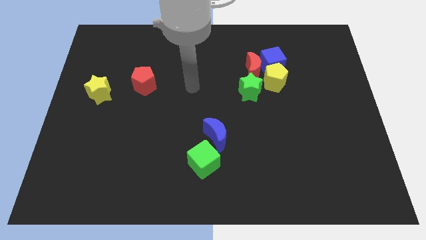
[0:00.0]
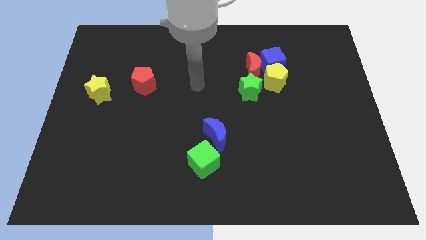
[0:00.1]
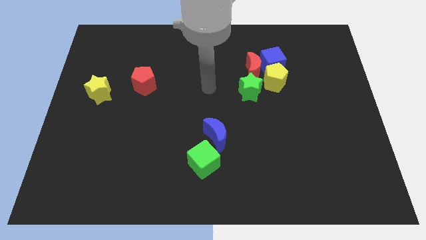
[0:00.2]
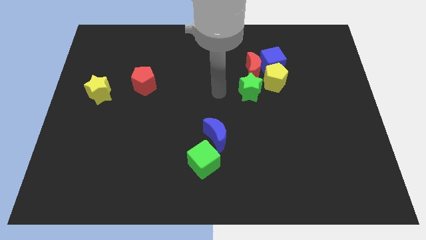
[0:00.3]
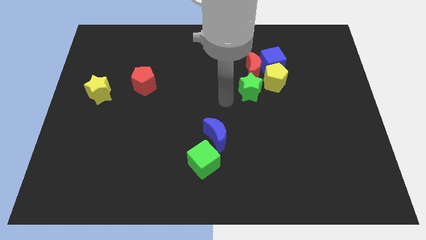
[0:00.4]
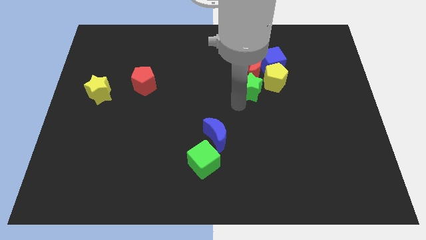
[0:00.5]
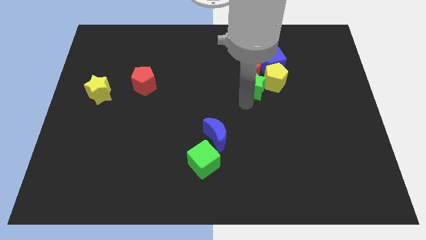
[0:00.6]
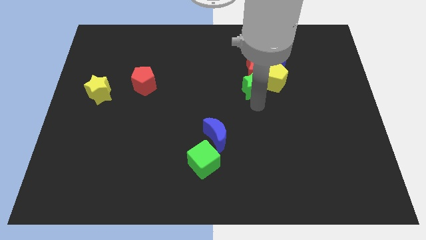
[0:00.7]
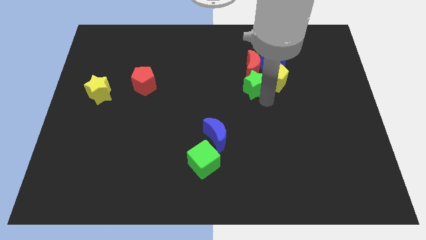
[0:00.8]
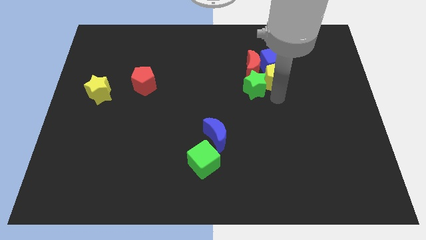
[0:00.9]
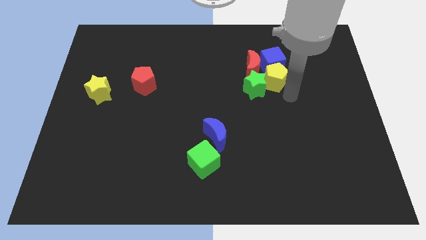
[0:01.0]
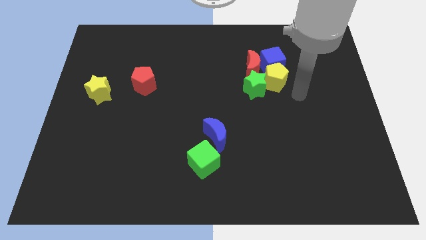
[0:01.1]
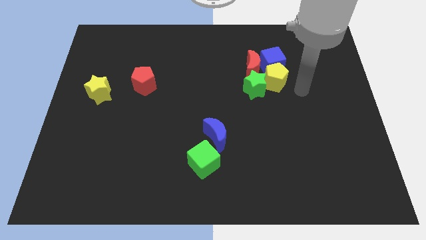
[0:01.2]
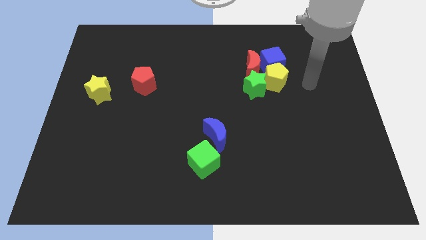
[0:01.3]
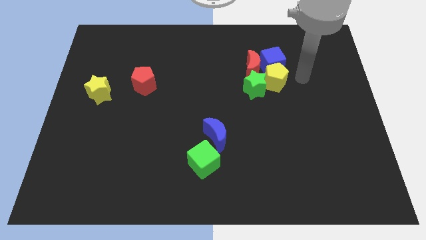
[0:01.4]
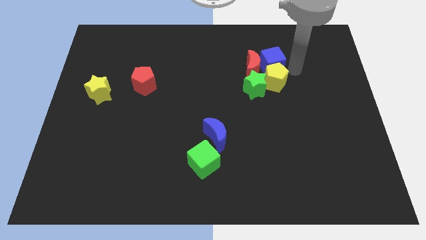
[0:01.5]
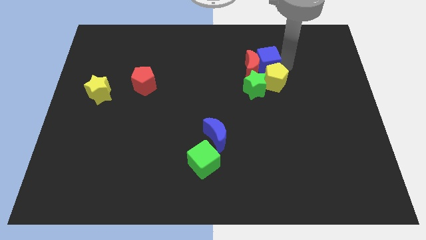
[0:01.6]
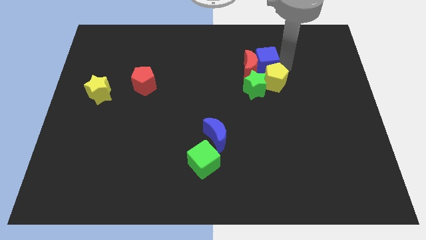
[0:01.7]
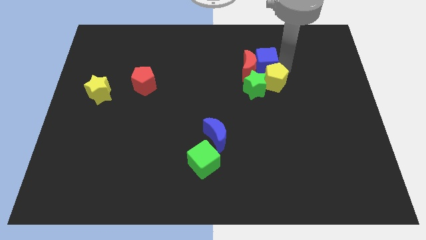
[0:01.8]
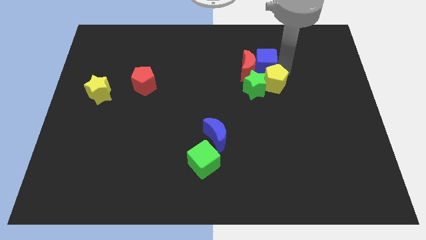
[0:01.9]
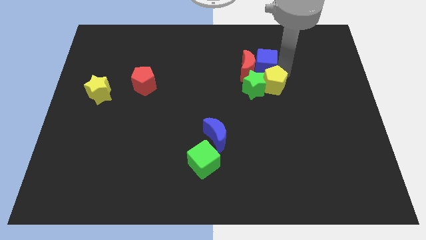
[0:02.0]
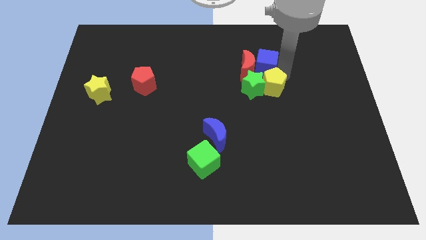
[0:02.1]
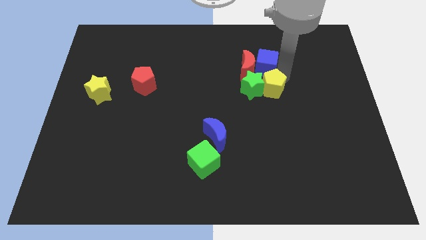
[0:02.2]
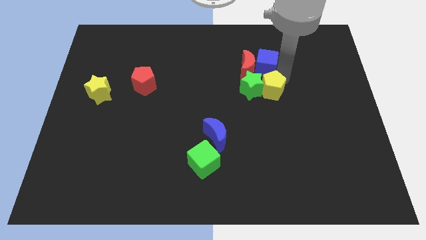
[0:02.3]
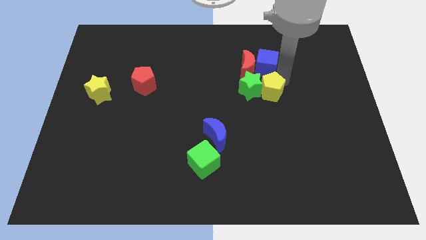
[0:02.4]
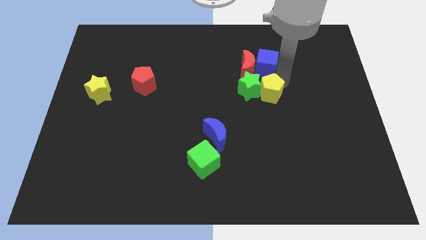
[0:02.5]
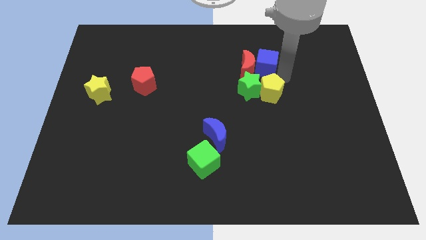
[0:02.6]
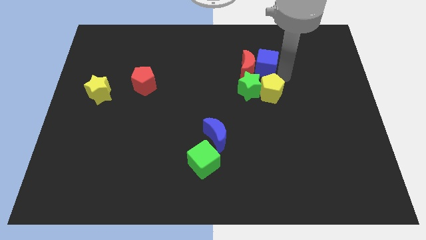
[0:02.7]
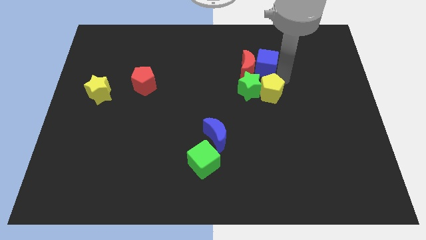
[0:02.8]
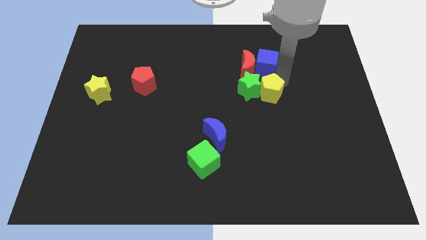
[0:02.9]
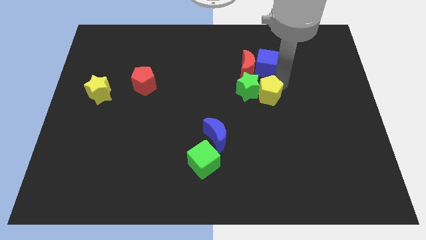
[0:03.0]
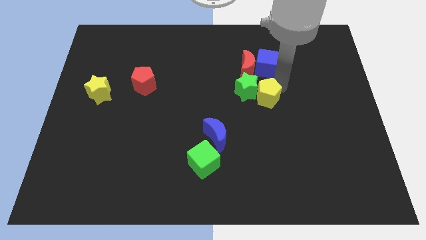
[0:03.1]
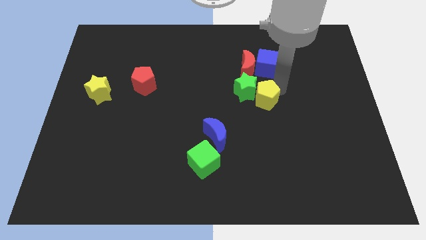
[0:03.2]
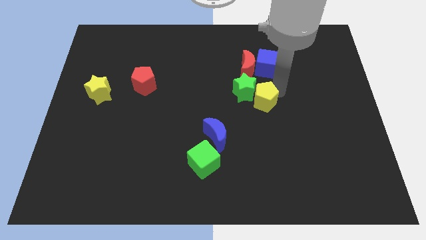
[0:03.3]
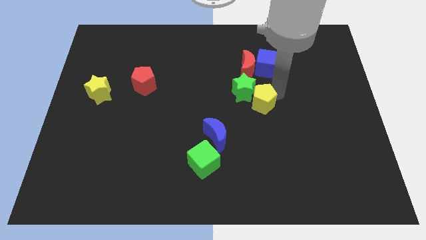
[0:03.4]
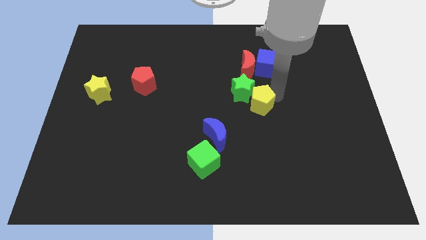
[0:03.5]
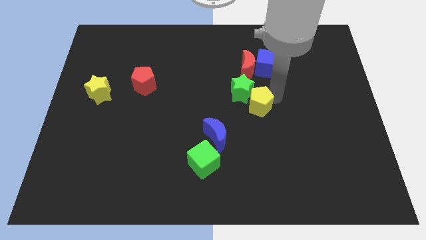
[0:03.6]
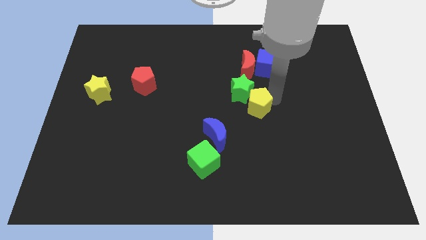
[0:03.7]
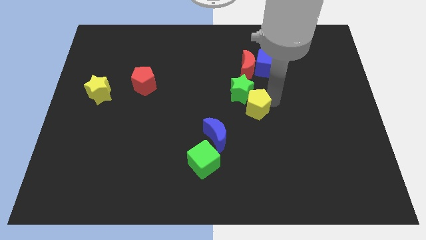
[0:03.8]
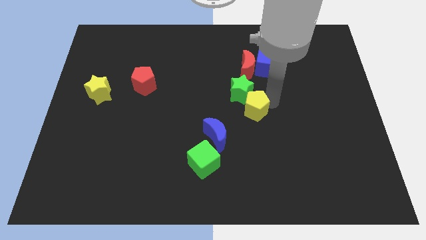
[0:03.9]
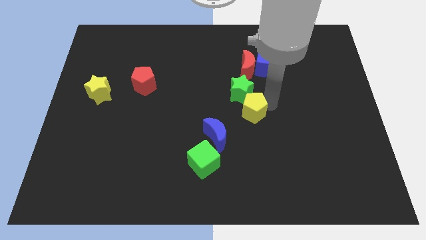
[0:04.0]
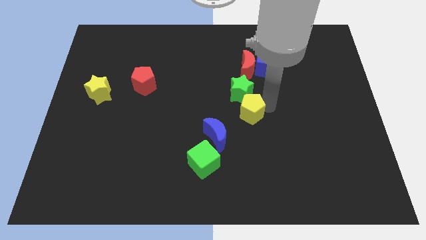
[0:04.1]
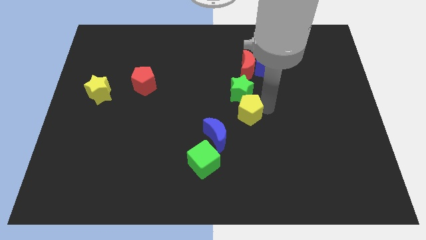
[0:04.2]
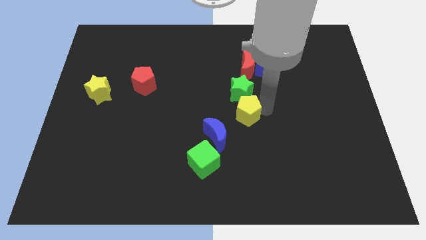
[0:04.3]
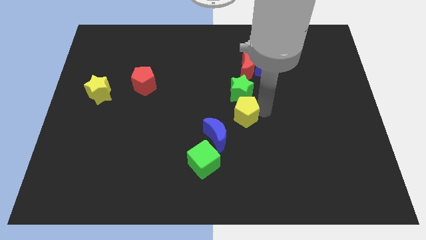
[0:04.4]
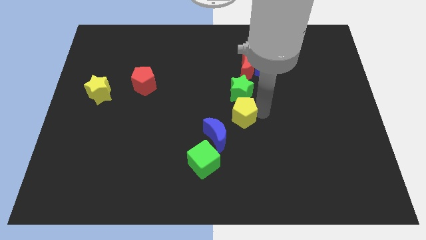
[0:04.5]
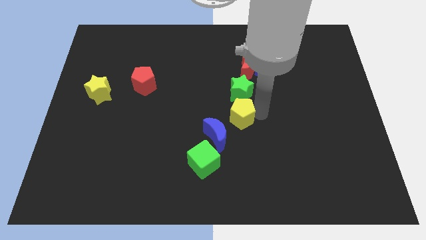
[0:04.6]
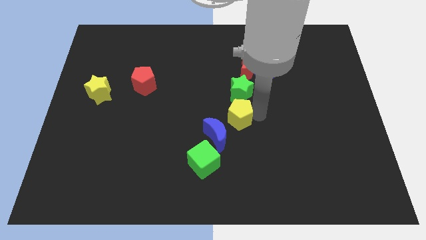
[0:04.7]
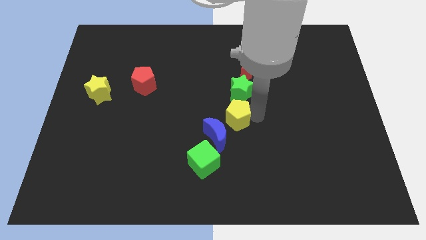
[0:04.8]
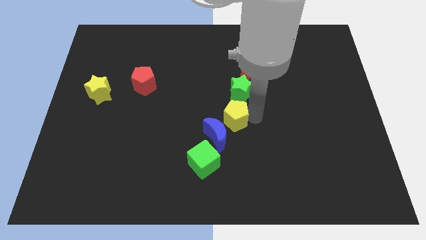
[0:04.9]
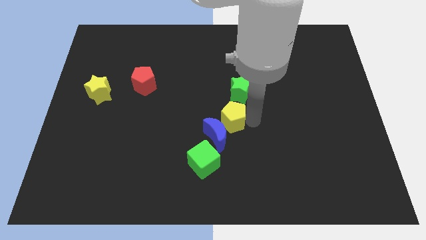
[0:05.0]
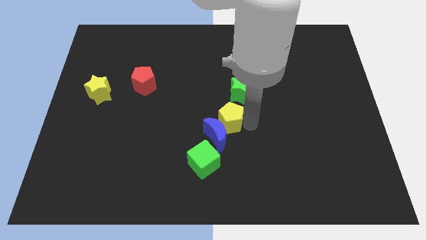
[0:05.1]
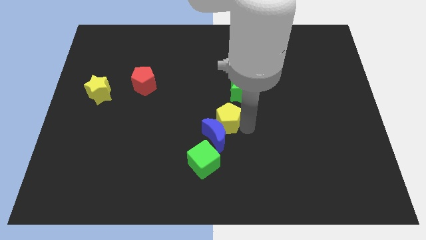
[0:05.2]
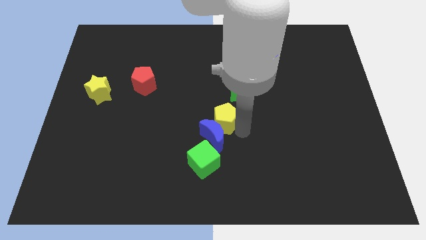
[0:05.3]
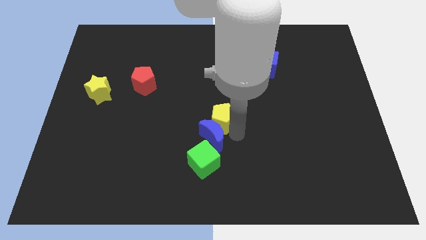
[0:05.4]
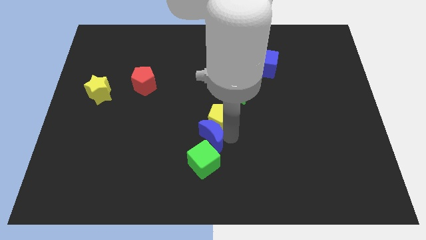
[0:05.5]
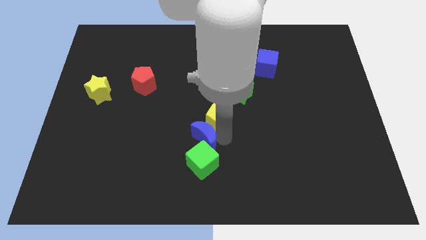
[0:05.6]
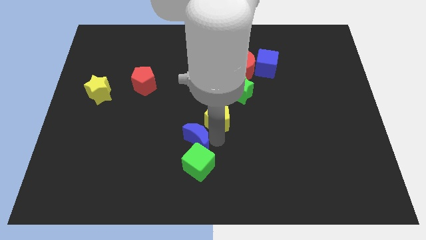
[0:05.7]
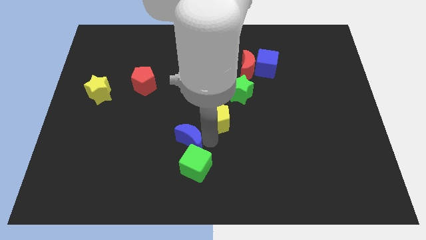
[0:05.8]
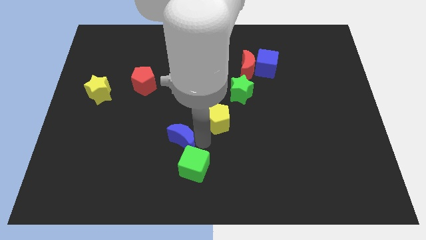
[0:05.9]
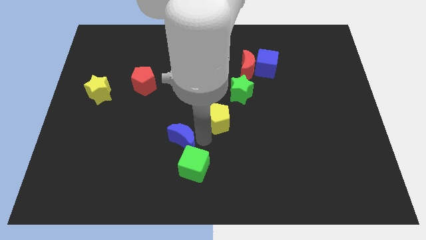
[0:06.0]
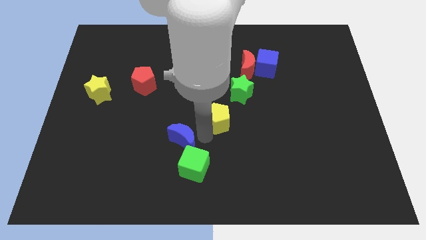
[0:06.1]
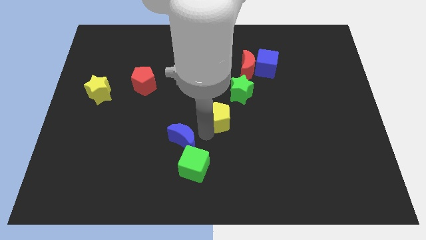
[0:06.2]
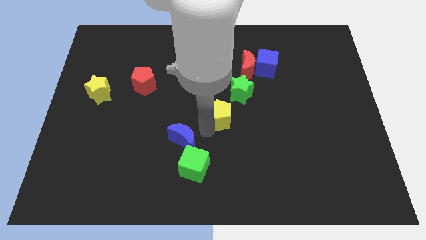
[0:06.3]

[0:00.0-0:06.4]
slightly slide the yellow pentagon left

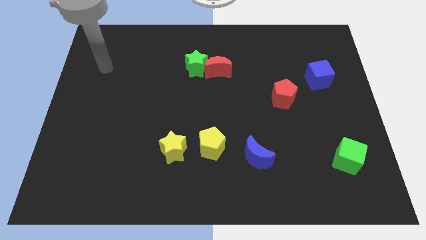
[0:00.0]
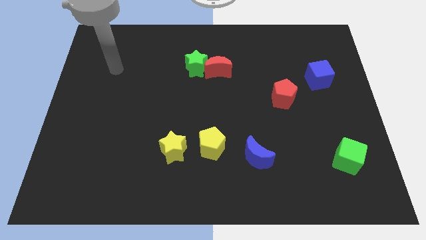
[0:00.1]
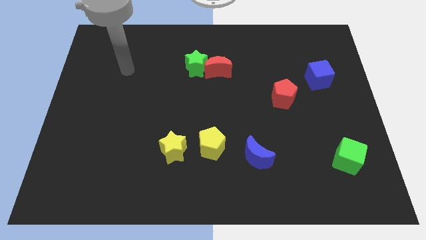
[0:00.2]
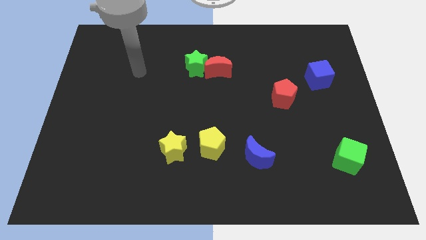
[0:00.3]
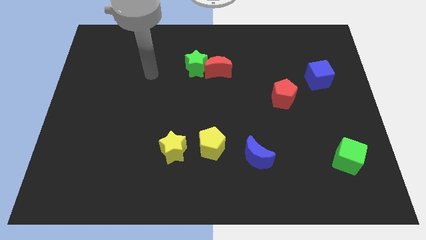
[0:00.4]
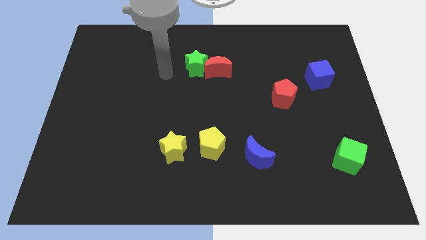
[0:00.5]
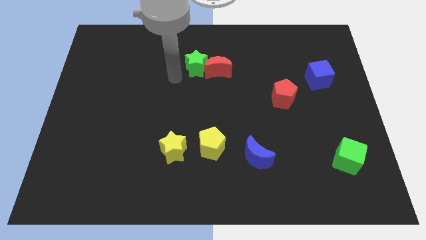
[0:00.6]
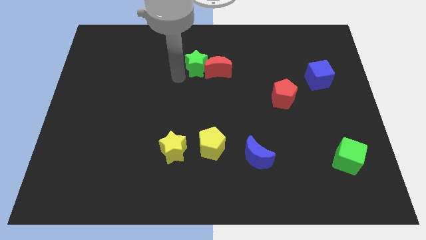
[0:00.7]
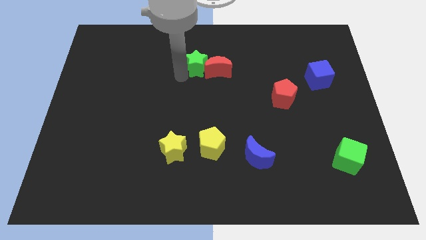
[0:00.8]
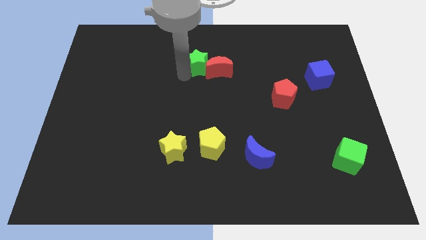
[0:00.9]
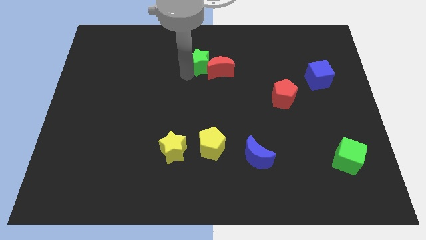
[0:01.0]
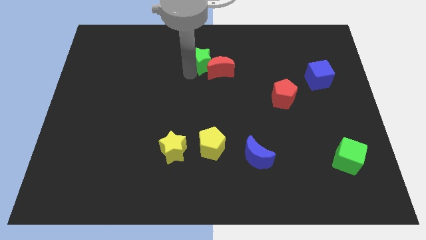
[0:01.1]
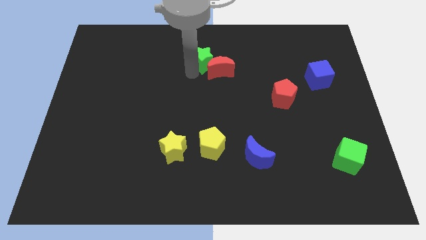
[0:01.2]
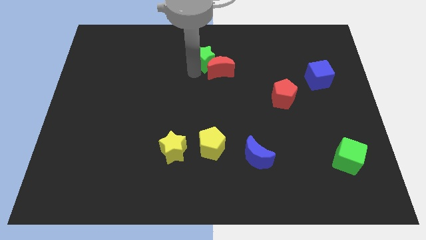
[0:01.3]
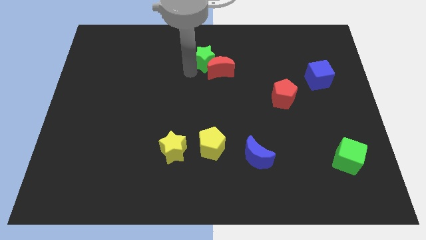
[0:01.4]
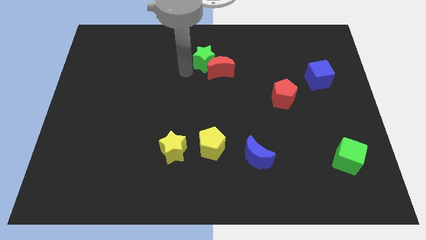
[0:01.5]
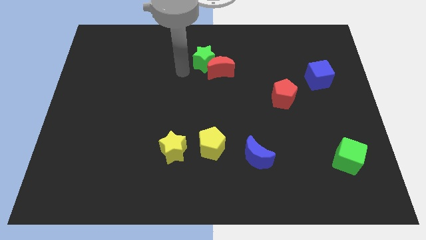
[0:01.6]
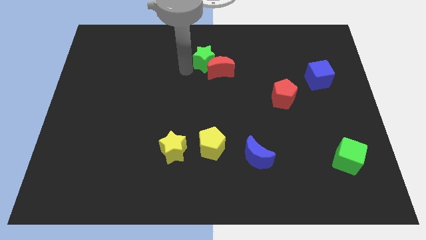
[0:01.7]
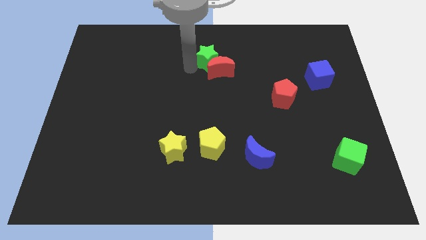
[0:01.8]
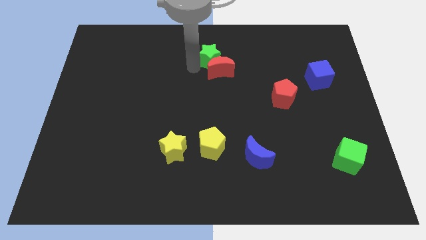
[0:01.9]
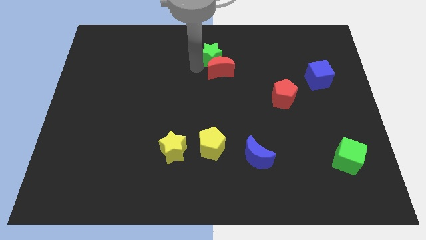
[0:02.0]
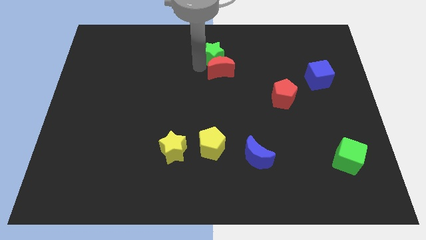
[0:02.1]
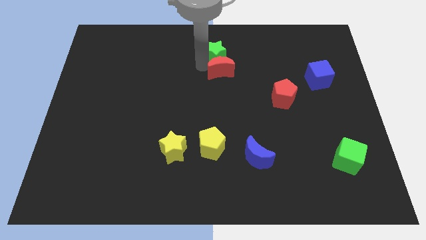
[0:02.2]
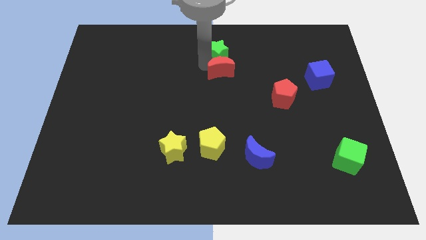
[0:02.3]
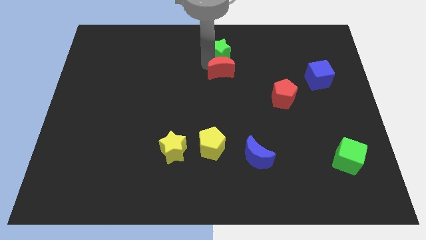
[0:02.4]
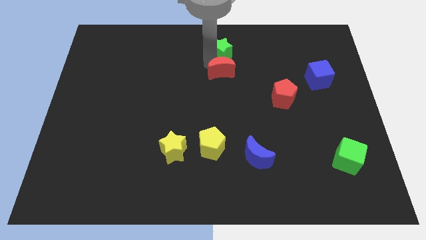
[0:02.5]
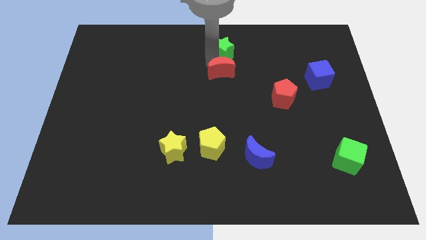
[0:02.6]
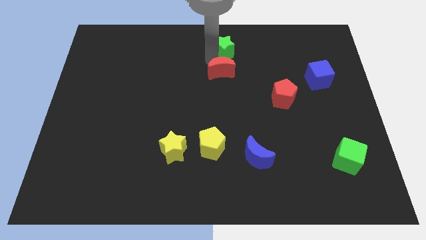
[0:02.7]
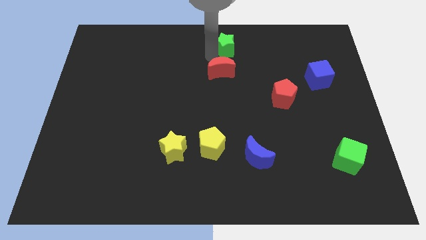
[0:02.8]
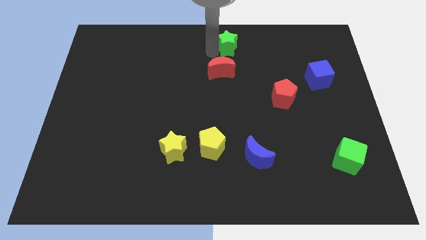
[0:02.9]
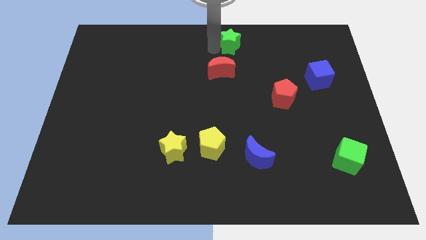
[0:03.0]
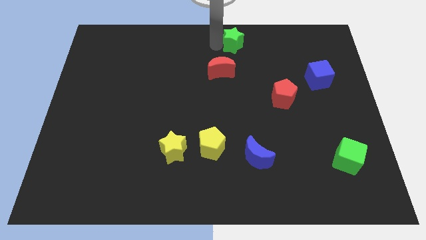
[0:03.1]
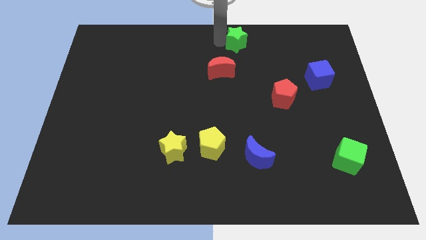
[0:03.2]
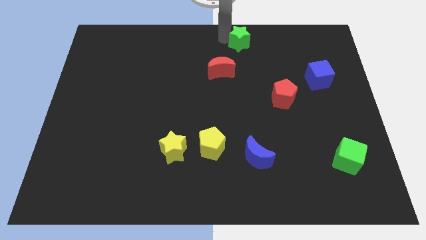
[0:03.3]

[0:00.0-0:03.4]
push the green star right a little bit
